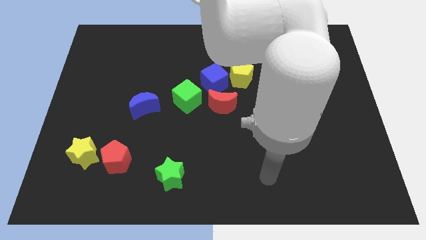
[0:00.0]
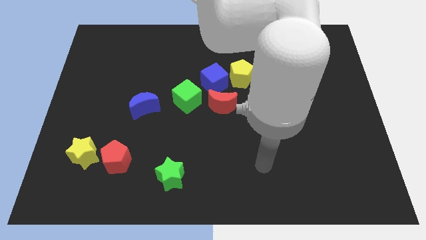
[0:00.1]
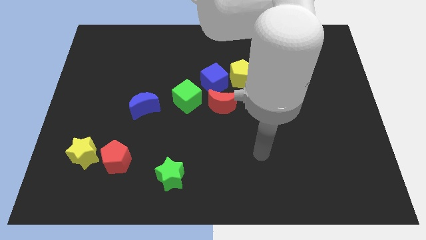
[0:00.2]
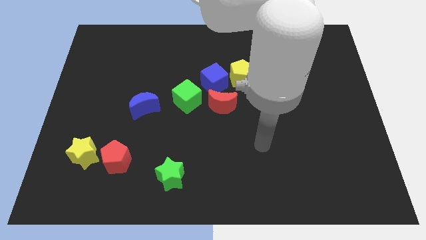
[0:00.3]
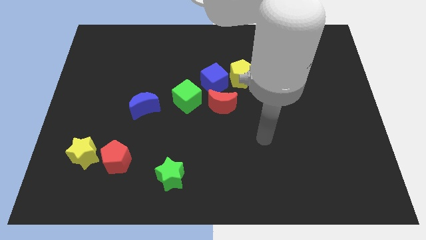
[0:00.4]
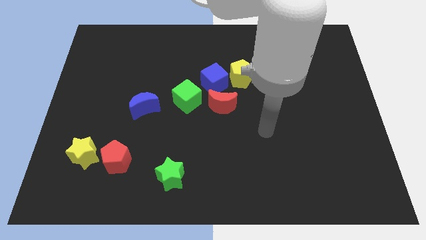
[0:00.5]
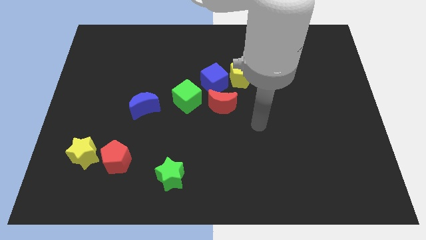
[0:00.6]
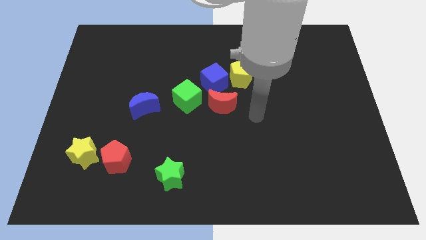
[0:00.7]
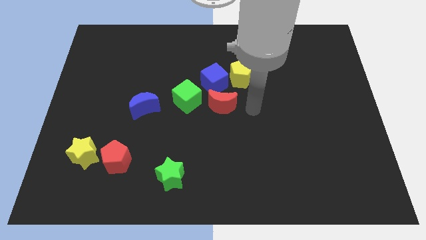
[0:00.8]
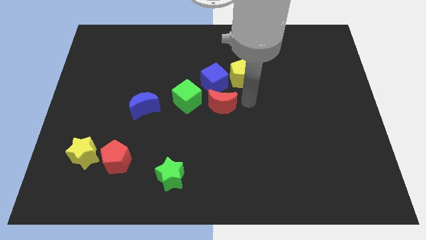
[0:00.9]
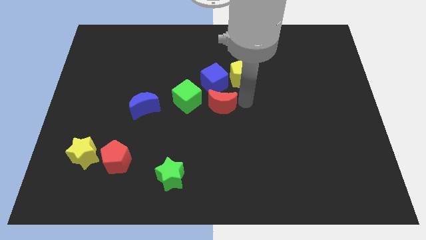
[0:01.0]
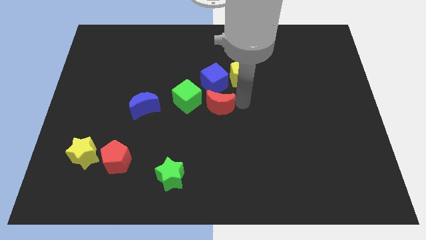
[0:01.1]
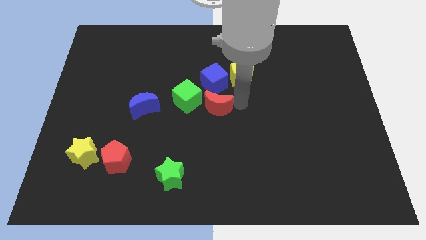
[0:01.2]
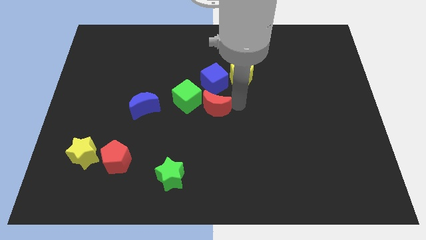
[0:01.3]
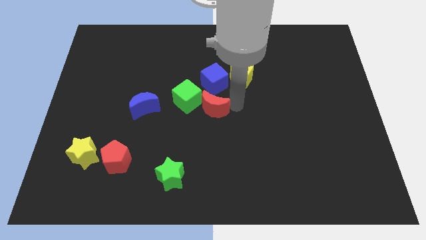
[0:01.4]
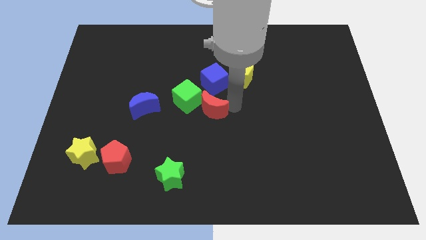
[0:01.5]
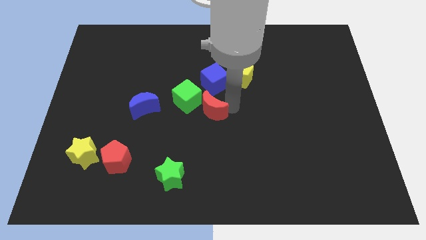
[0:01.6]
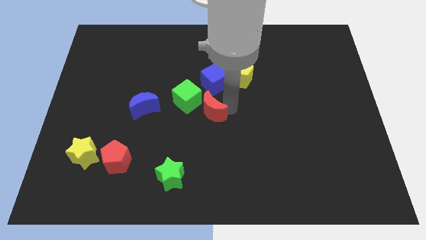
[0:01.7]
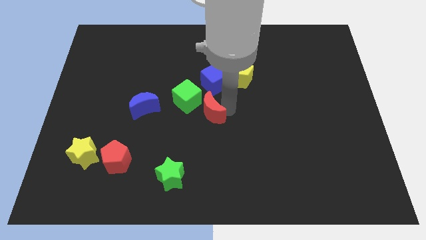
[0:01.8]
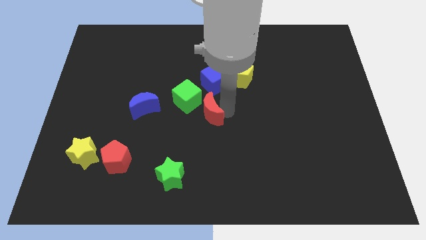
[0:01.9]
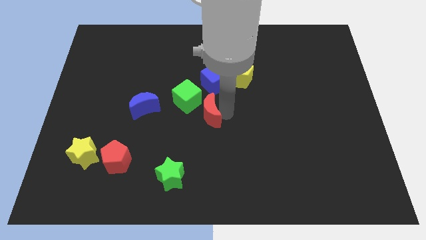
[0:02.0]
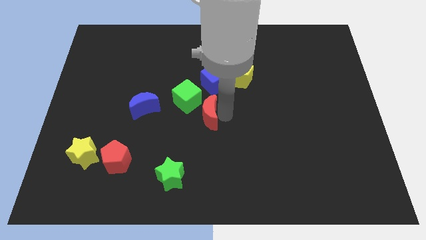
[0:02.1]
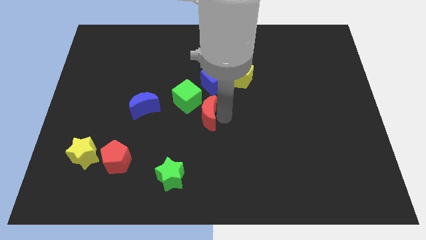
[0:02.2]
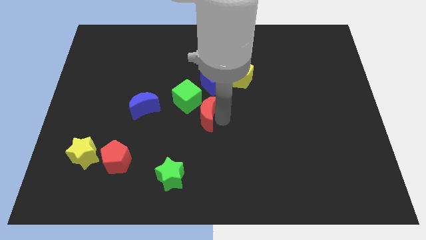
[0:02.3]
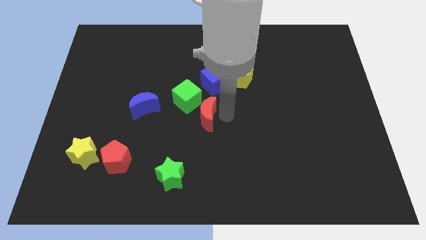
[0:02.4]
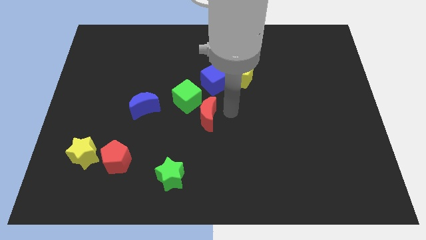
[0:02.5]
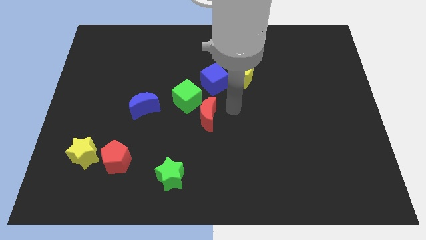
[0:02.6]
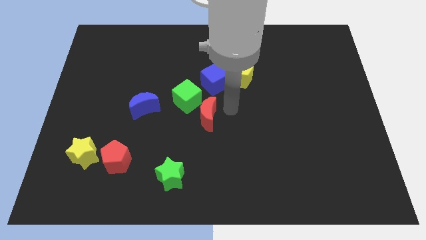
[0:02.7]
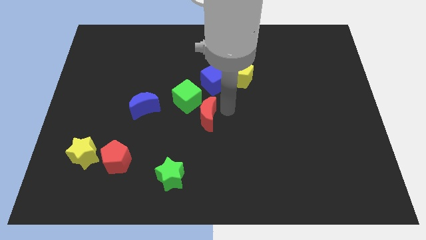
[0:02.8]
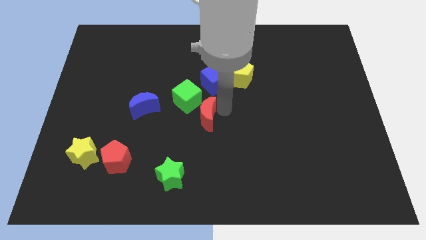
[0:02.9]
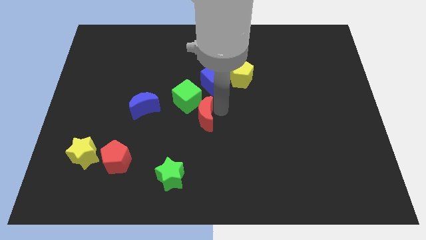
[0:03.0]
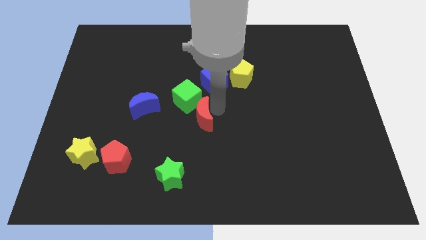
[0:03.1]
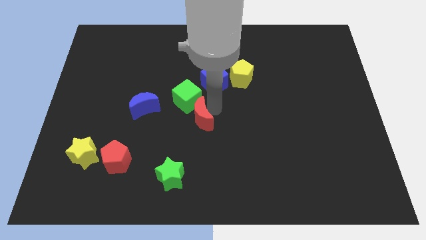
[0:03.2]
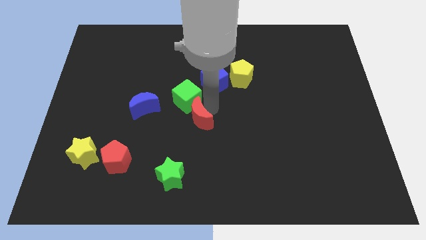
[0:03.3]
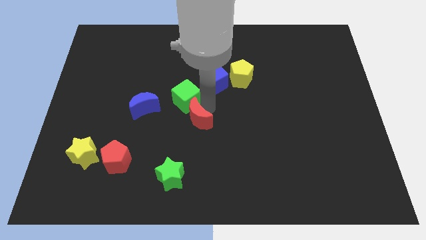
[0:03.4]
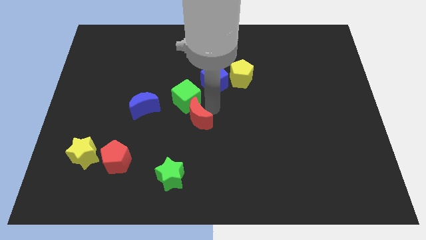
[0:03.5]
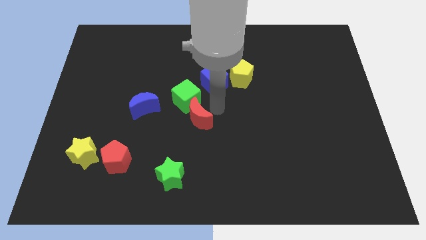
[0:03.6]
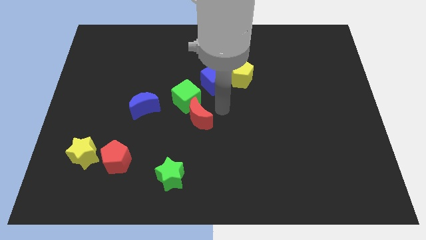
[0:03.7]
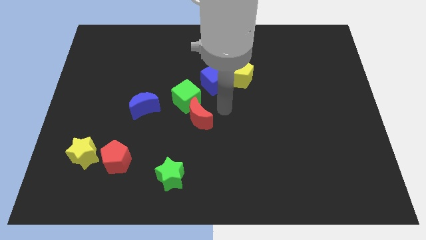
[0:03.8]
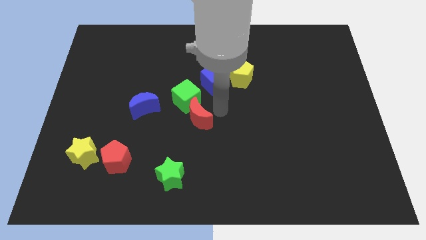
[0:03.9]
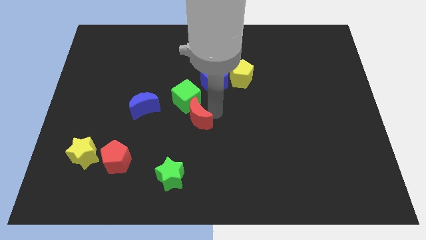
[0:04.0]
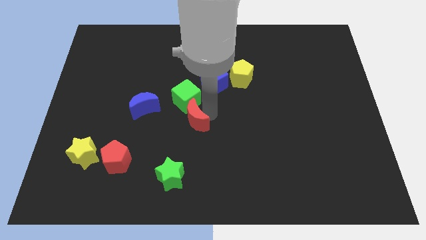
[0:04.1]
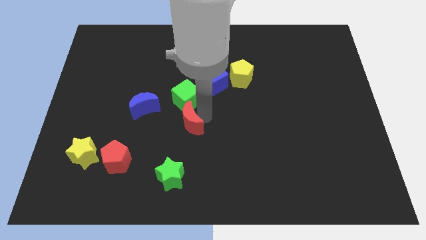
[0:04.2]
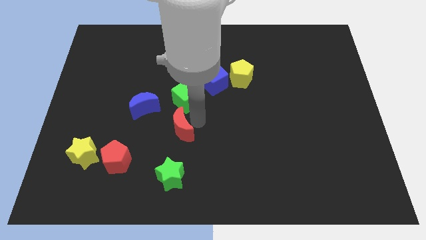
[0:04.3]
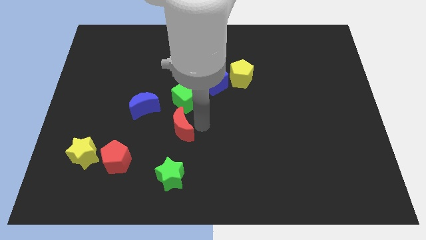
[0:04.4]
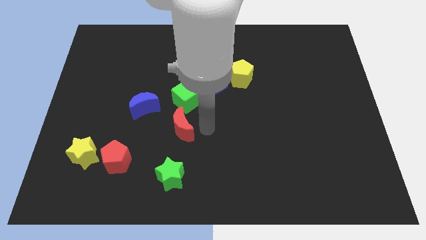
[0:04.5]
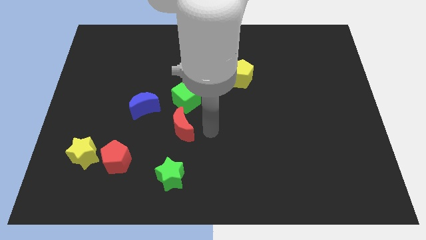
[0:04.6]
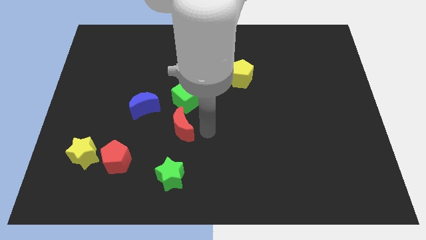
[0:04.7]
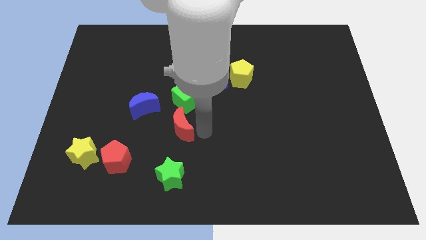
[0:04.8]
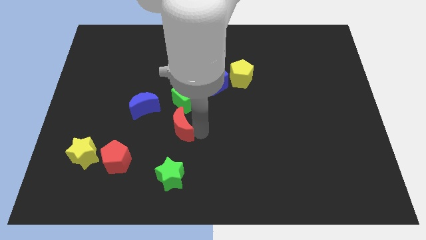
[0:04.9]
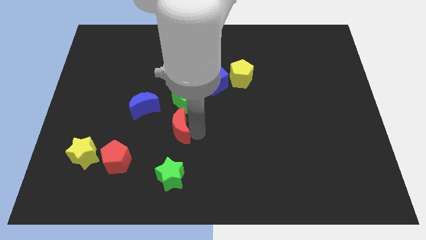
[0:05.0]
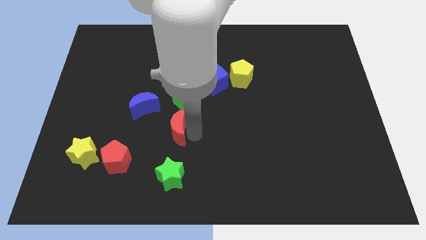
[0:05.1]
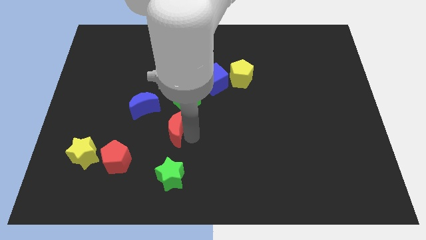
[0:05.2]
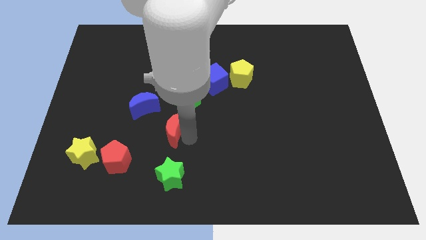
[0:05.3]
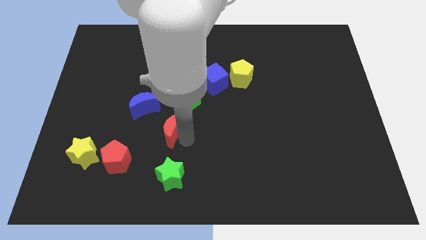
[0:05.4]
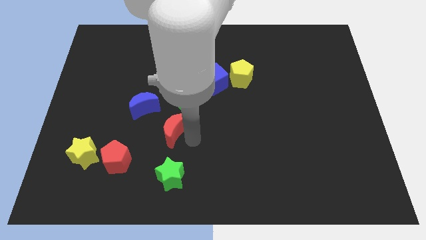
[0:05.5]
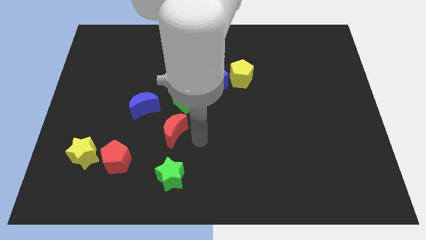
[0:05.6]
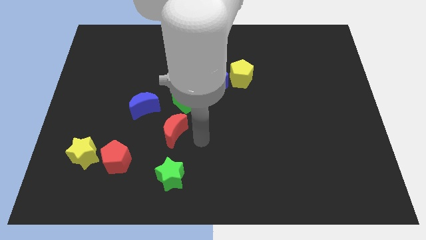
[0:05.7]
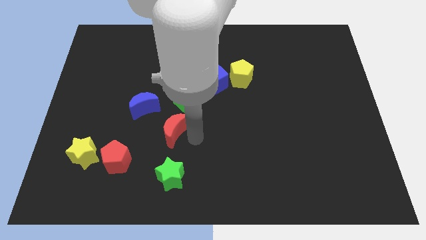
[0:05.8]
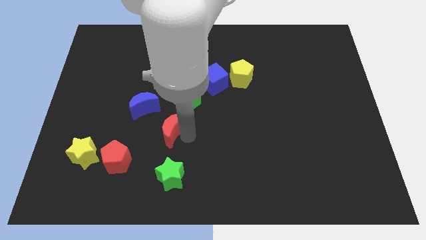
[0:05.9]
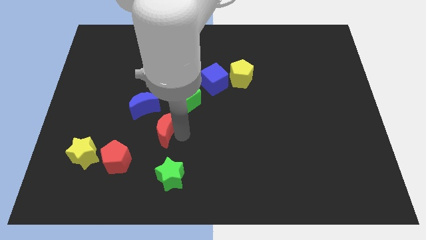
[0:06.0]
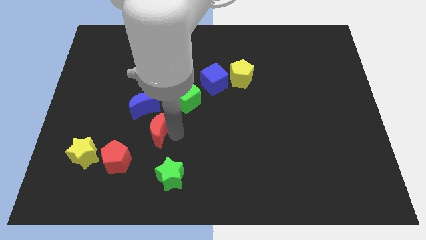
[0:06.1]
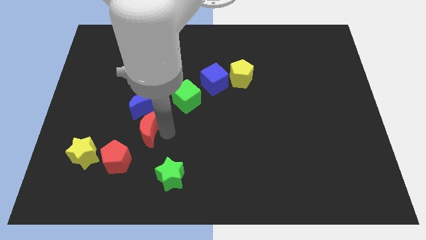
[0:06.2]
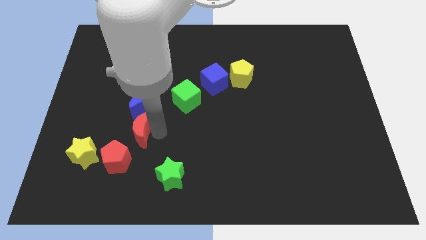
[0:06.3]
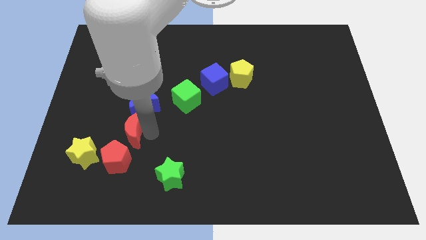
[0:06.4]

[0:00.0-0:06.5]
slide the red moon diagonally down and to the left of the blue moon

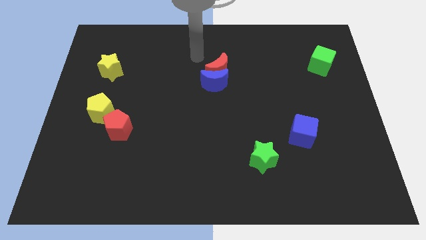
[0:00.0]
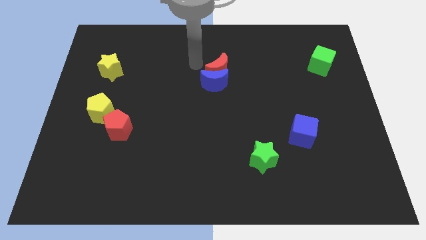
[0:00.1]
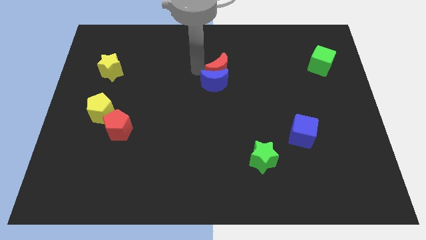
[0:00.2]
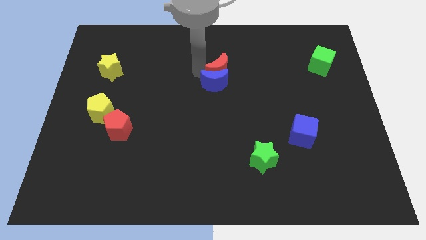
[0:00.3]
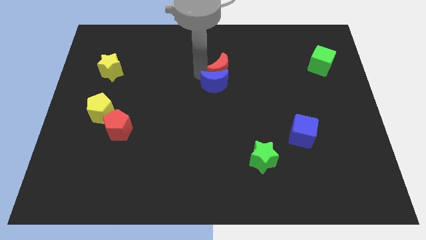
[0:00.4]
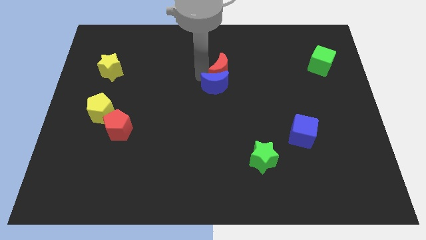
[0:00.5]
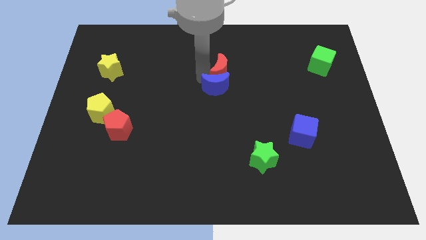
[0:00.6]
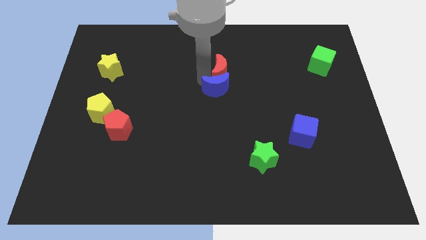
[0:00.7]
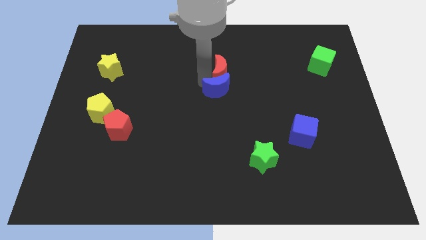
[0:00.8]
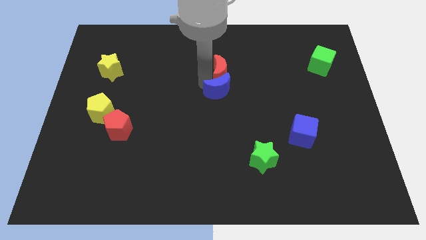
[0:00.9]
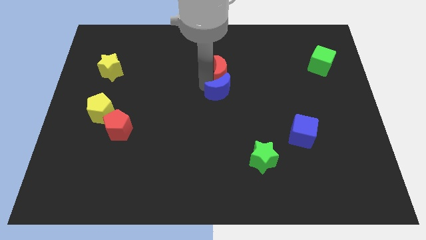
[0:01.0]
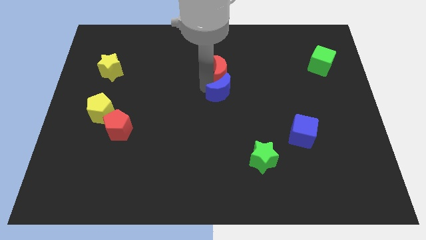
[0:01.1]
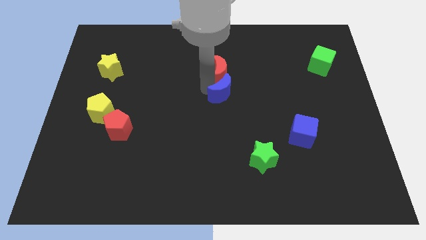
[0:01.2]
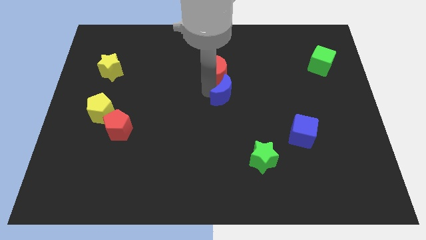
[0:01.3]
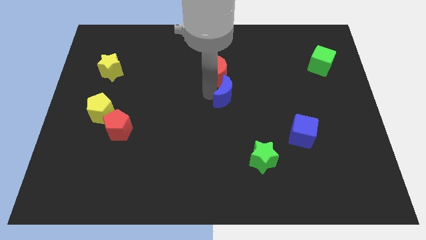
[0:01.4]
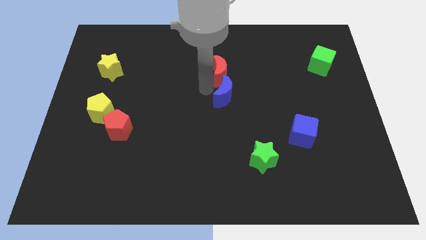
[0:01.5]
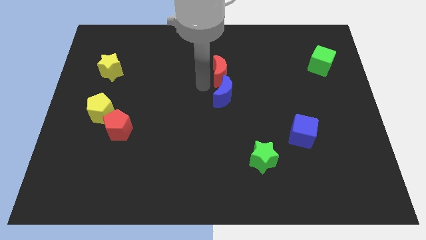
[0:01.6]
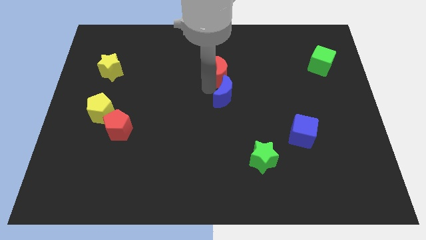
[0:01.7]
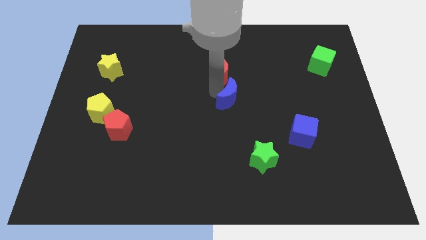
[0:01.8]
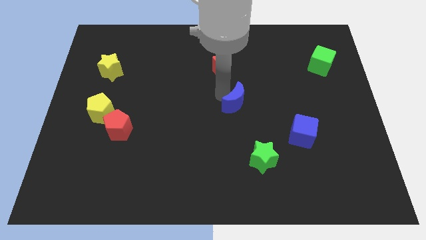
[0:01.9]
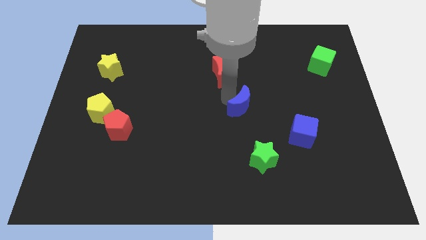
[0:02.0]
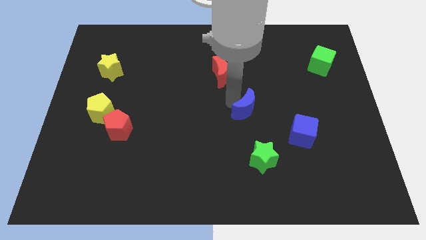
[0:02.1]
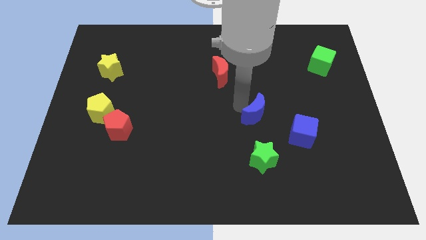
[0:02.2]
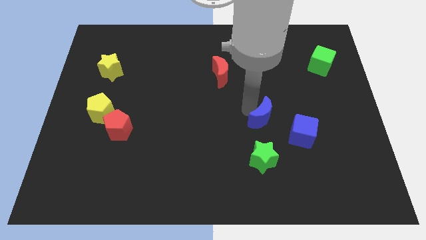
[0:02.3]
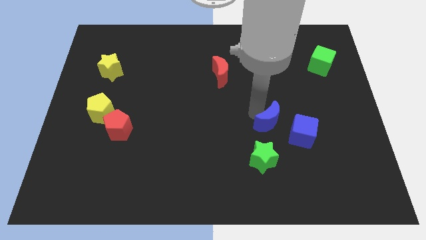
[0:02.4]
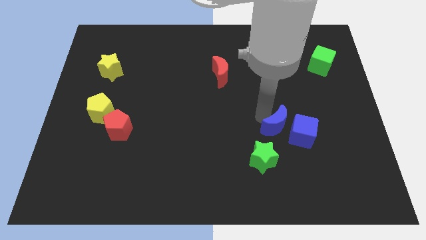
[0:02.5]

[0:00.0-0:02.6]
put the blue moon diagonally up and to the right of the green star
